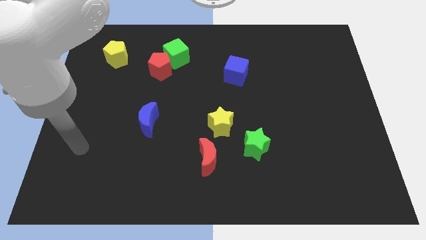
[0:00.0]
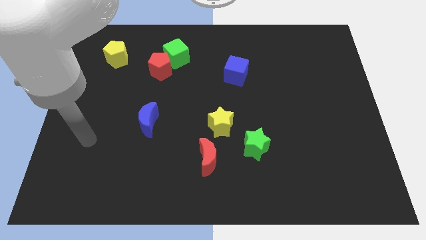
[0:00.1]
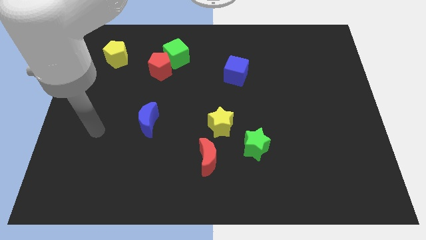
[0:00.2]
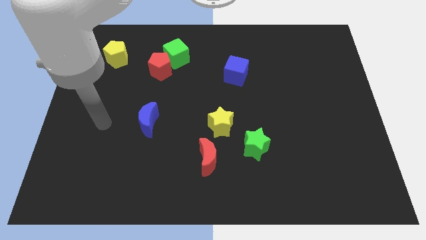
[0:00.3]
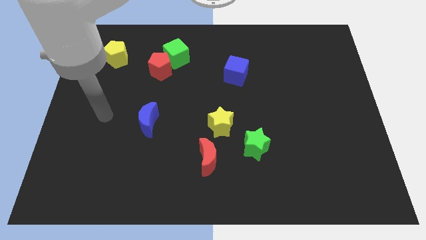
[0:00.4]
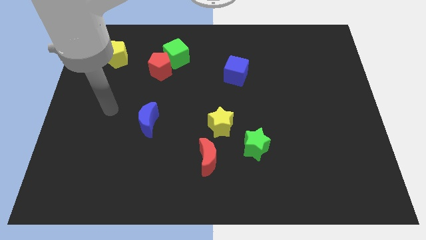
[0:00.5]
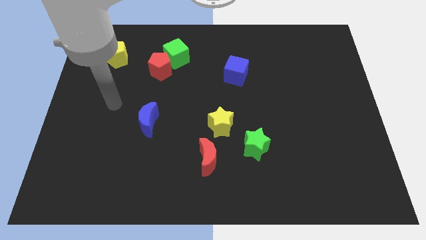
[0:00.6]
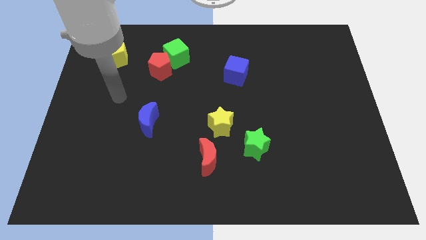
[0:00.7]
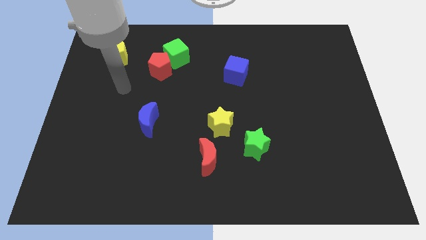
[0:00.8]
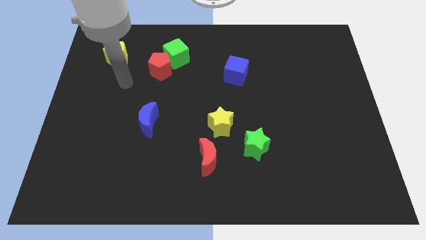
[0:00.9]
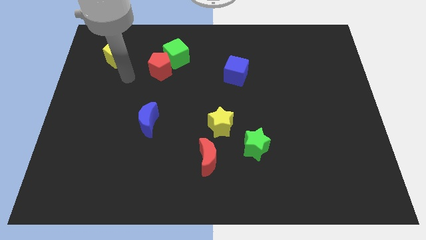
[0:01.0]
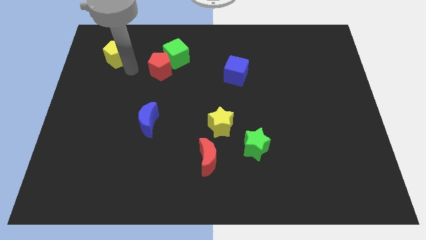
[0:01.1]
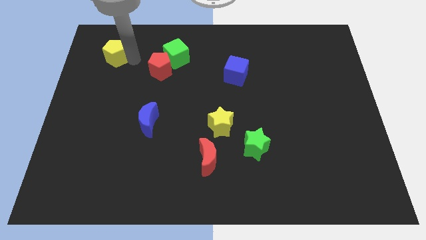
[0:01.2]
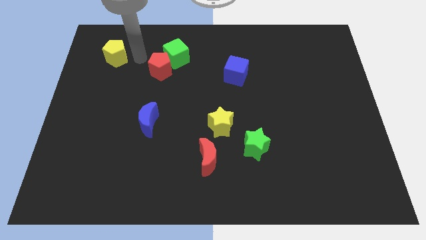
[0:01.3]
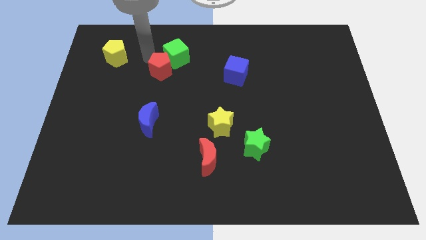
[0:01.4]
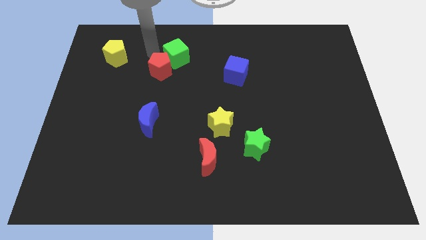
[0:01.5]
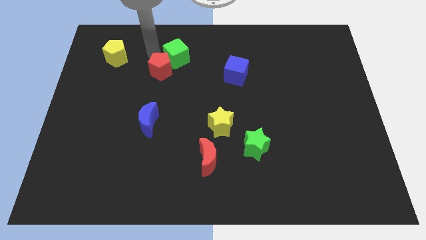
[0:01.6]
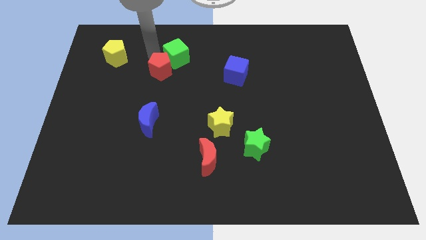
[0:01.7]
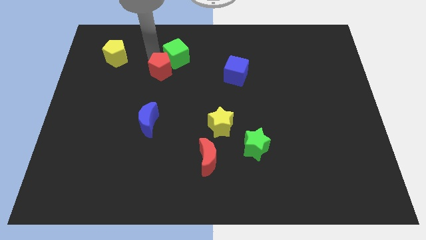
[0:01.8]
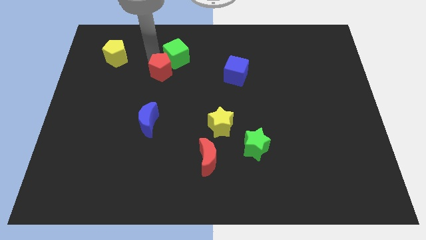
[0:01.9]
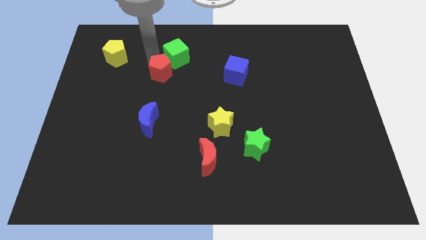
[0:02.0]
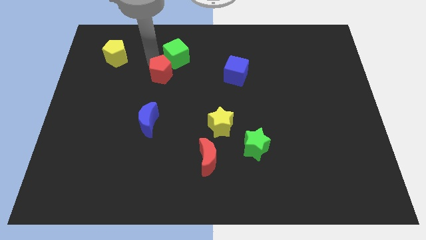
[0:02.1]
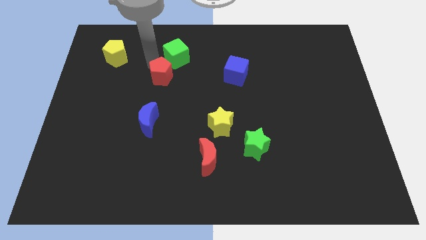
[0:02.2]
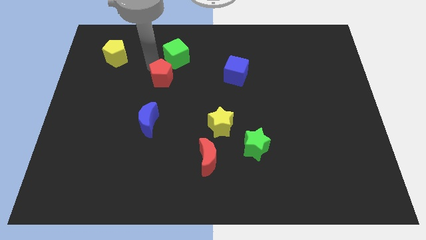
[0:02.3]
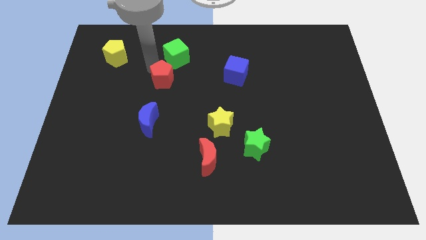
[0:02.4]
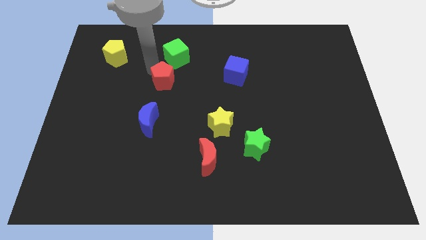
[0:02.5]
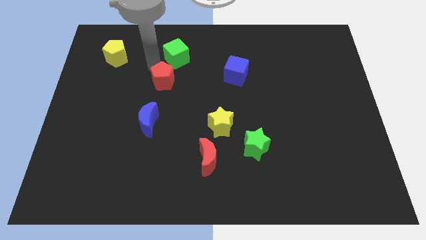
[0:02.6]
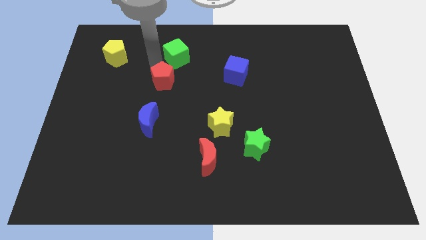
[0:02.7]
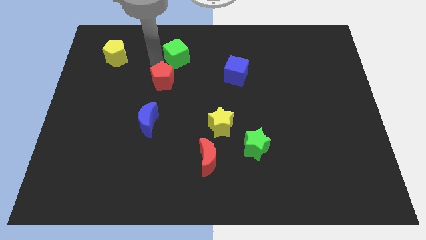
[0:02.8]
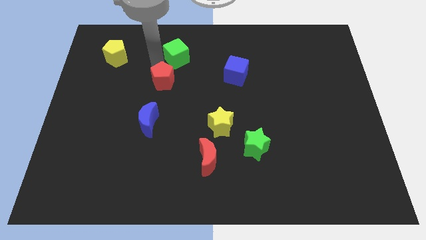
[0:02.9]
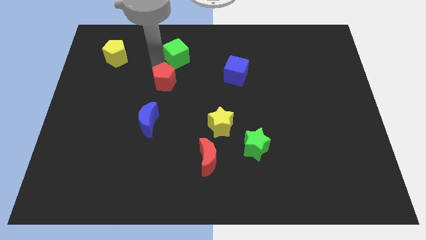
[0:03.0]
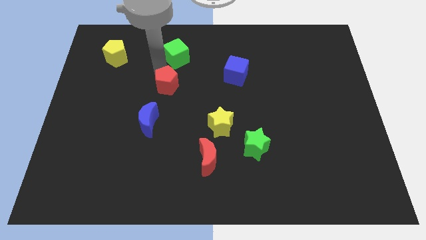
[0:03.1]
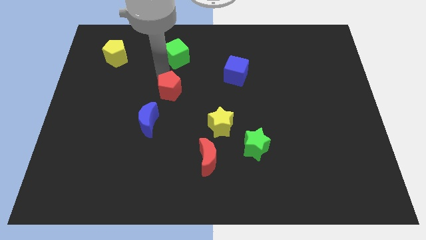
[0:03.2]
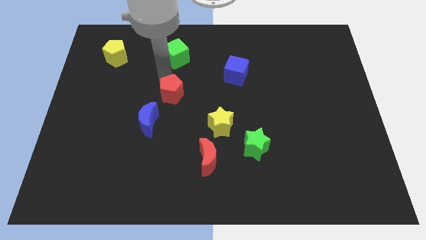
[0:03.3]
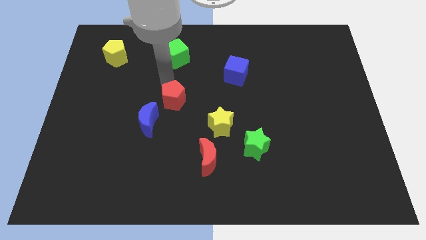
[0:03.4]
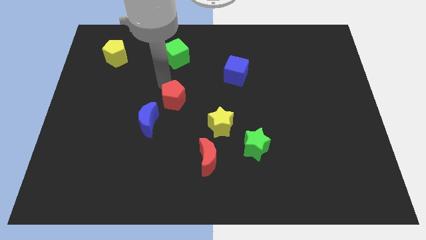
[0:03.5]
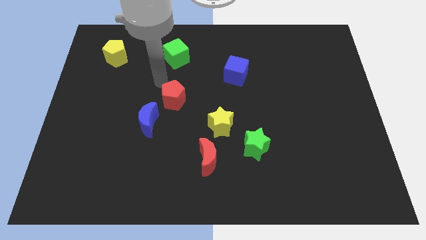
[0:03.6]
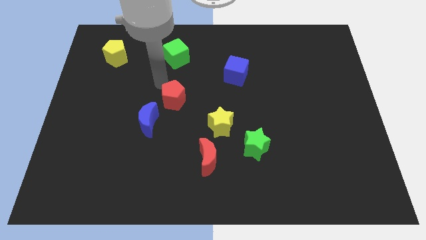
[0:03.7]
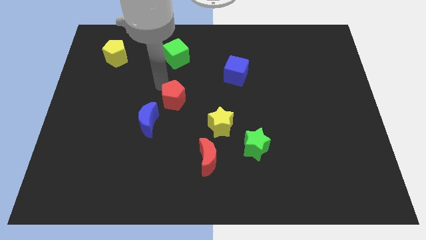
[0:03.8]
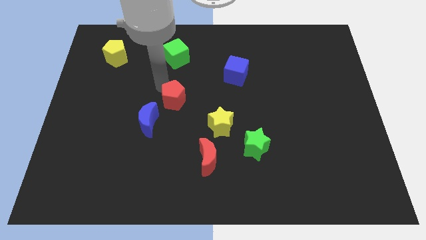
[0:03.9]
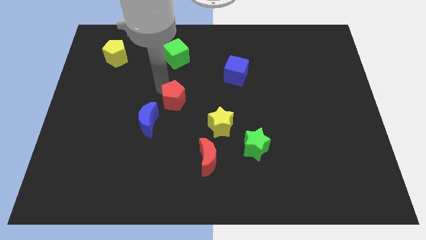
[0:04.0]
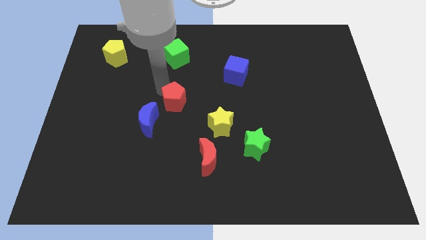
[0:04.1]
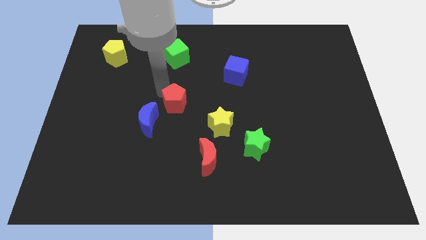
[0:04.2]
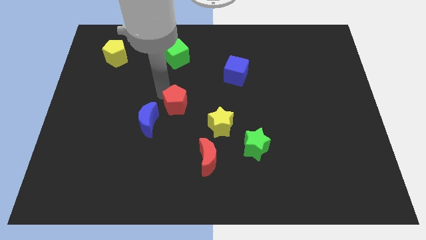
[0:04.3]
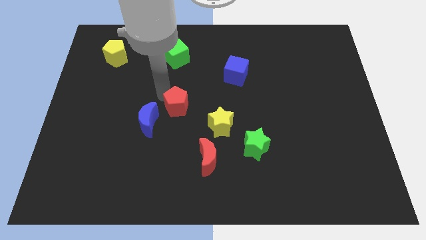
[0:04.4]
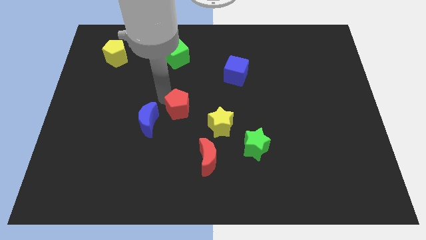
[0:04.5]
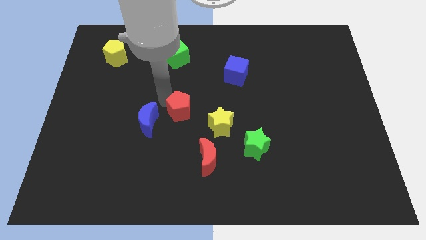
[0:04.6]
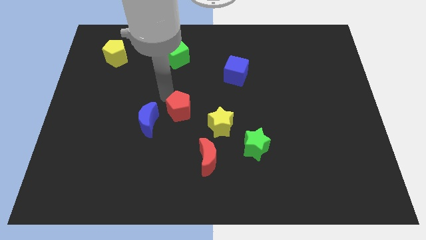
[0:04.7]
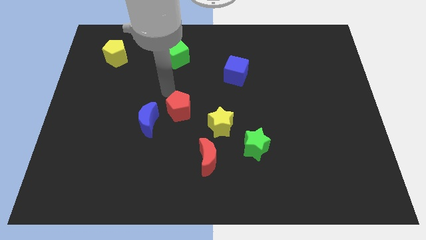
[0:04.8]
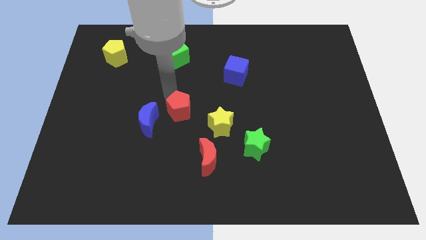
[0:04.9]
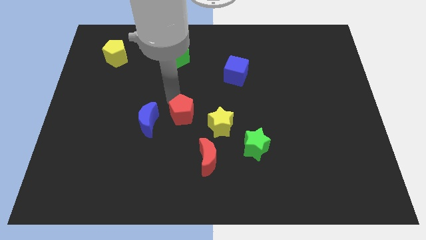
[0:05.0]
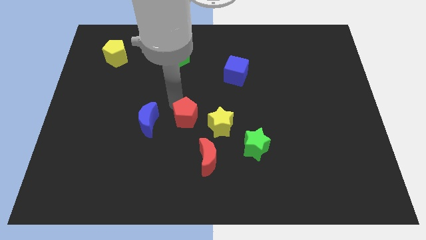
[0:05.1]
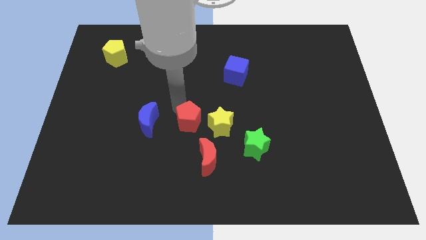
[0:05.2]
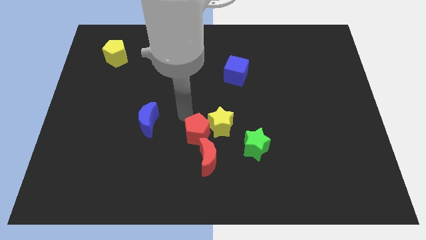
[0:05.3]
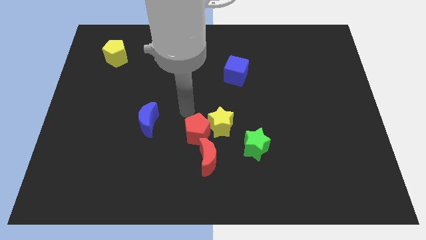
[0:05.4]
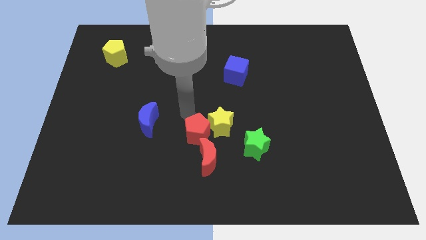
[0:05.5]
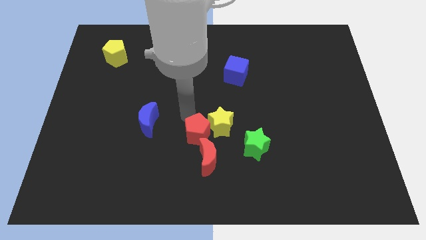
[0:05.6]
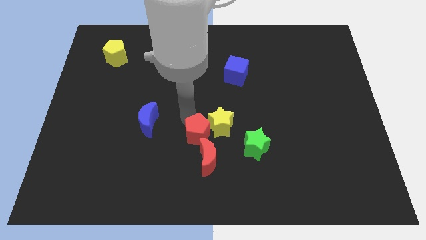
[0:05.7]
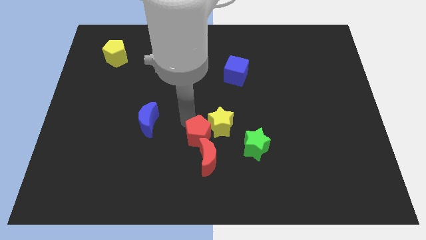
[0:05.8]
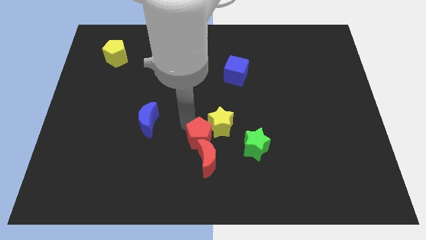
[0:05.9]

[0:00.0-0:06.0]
push the red pentagon close to the red moon

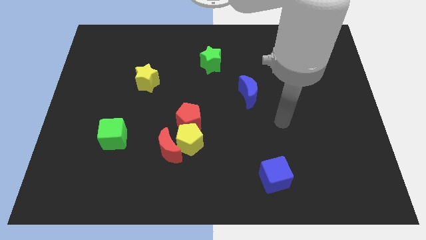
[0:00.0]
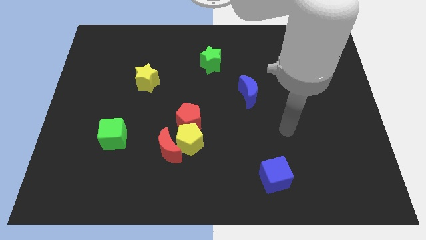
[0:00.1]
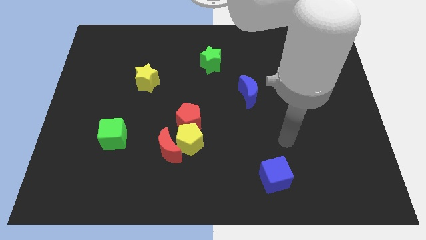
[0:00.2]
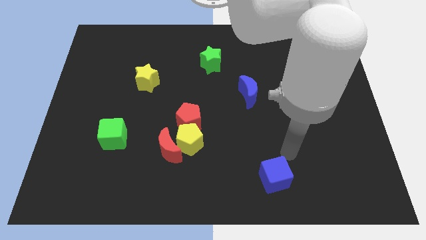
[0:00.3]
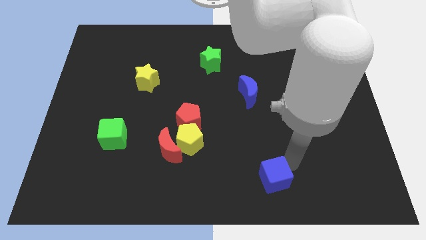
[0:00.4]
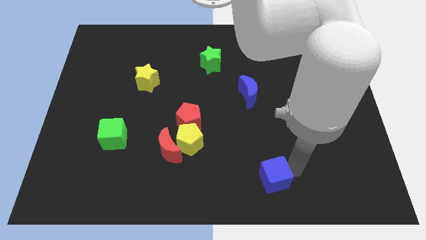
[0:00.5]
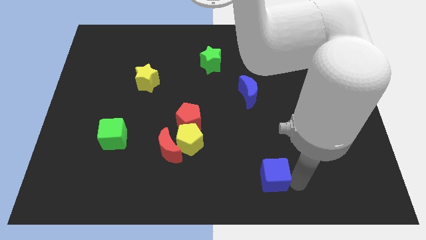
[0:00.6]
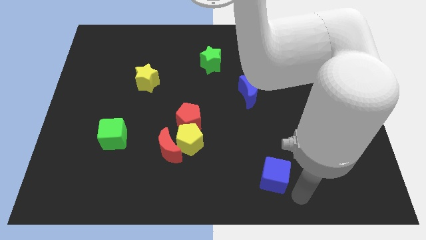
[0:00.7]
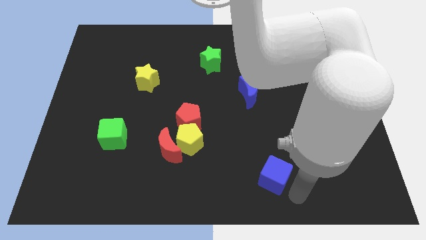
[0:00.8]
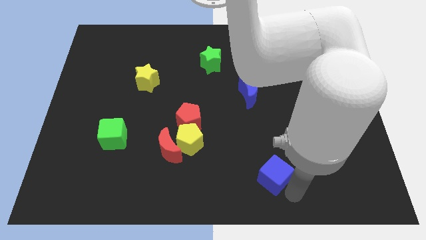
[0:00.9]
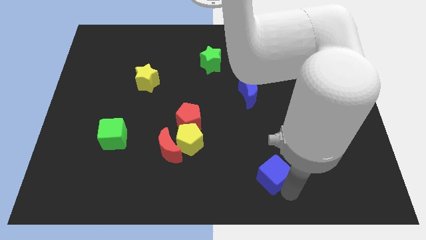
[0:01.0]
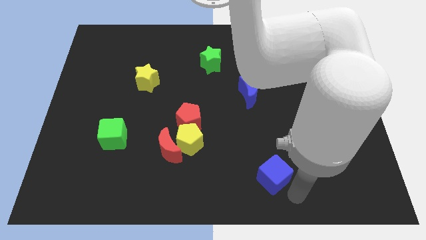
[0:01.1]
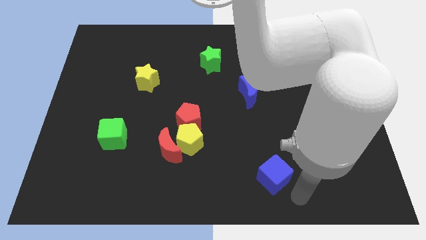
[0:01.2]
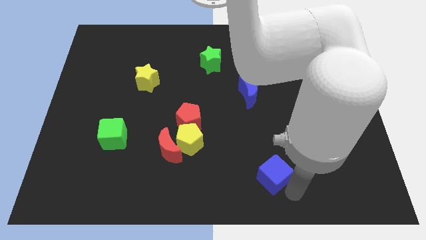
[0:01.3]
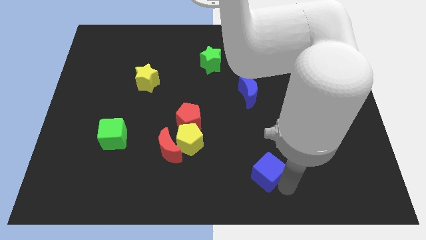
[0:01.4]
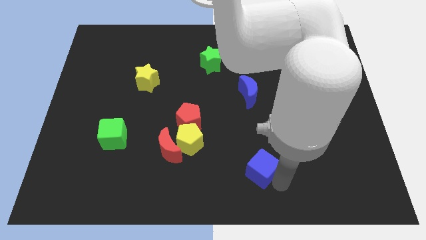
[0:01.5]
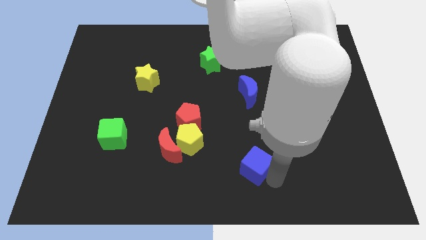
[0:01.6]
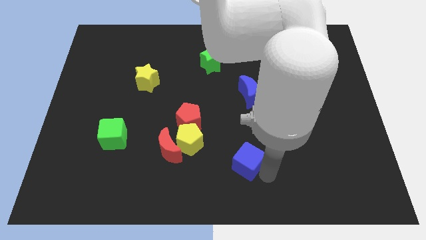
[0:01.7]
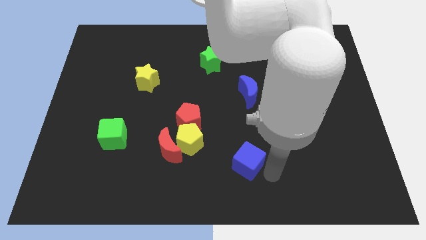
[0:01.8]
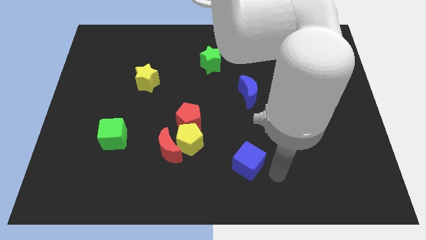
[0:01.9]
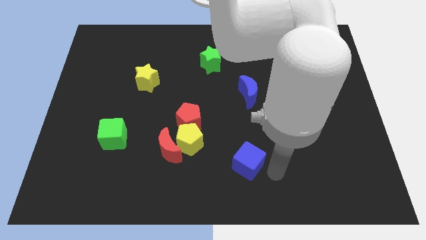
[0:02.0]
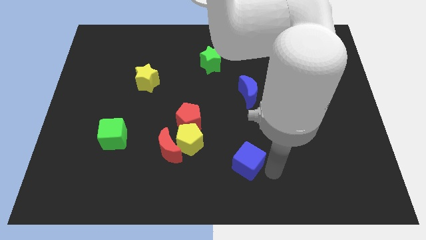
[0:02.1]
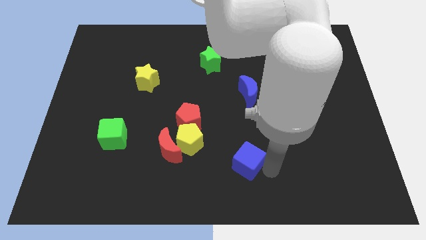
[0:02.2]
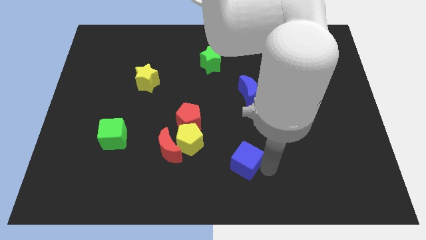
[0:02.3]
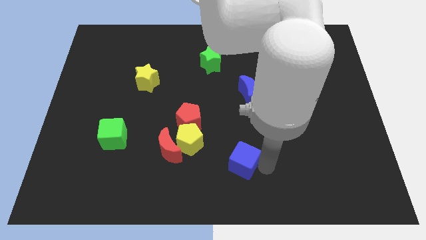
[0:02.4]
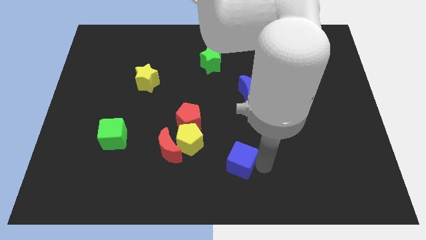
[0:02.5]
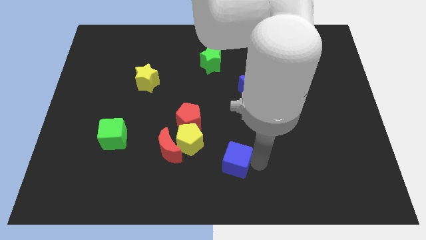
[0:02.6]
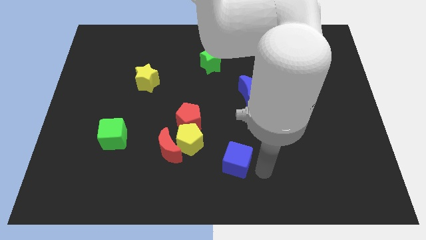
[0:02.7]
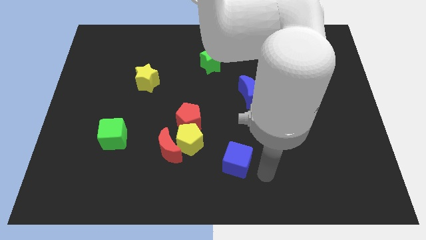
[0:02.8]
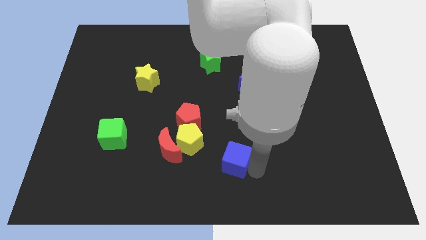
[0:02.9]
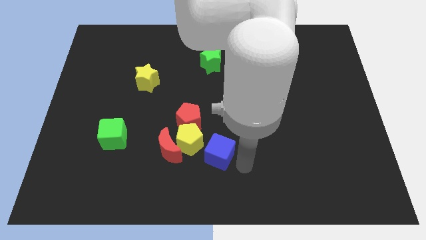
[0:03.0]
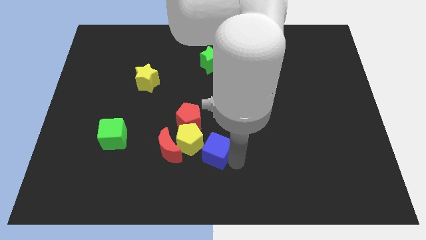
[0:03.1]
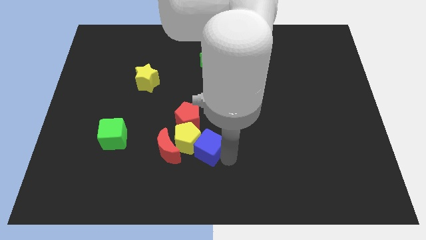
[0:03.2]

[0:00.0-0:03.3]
put the blue cube to the yellow pentagon
